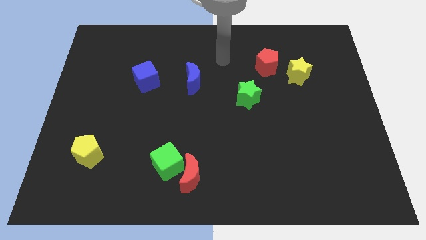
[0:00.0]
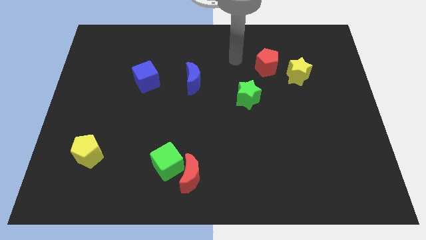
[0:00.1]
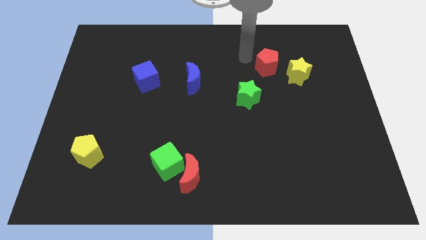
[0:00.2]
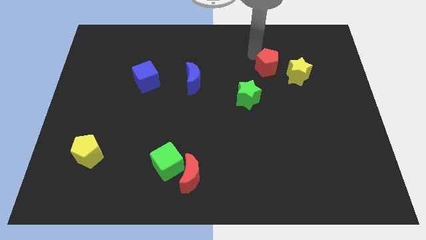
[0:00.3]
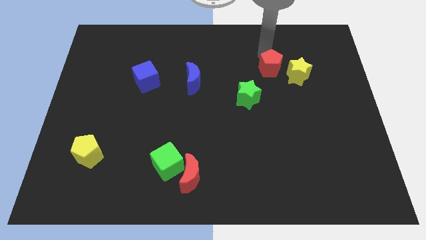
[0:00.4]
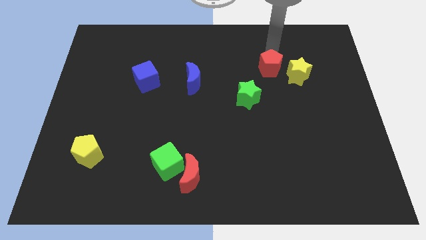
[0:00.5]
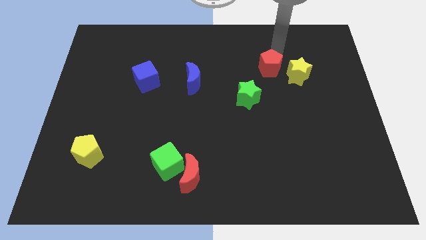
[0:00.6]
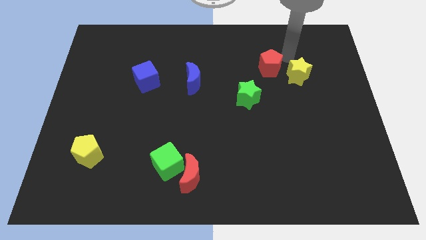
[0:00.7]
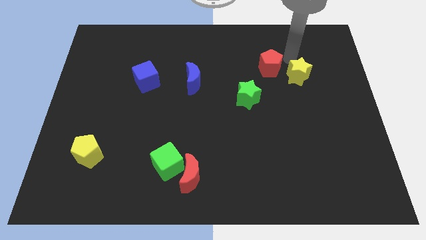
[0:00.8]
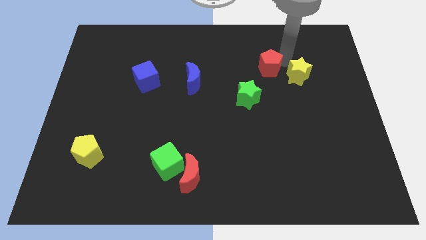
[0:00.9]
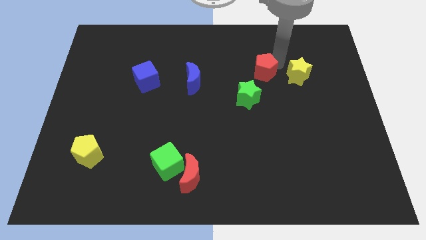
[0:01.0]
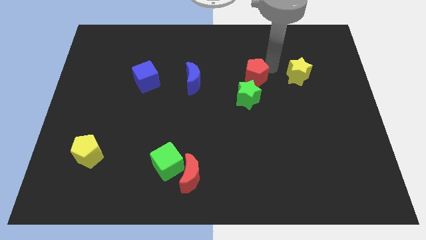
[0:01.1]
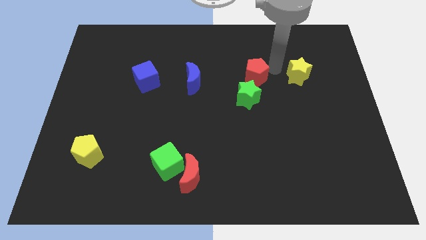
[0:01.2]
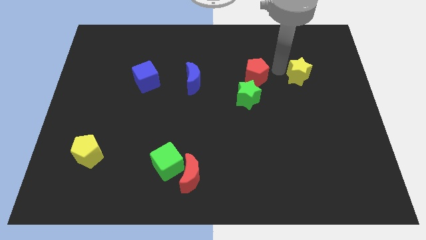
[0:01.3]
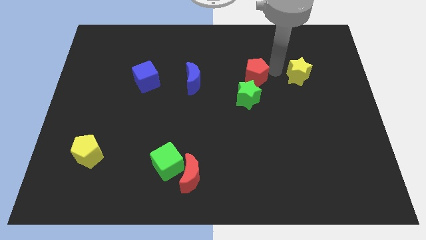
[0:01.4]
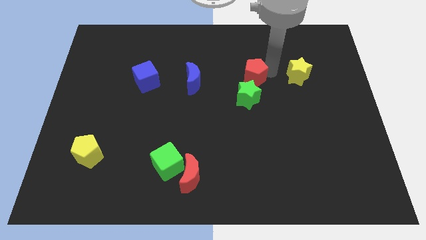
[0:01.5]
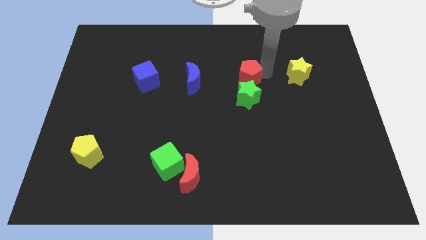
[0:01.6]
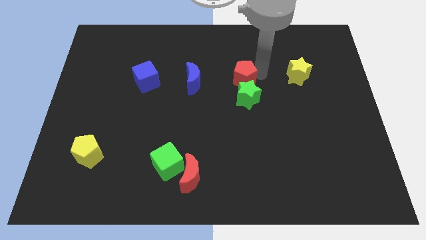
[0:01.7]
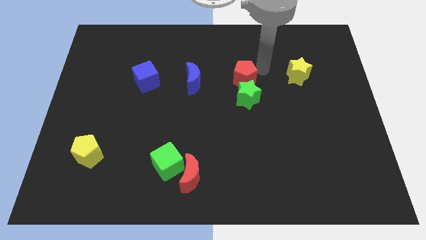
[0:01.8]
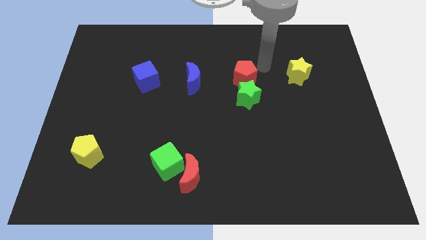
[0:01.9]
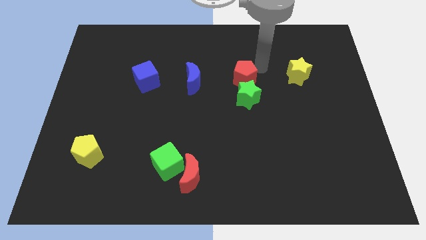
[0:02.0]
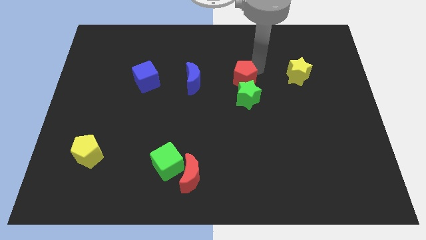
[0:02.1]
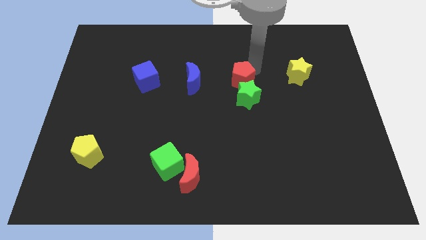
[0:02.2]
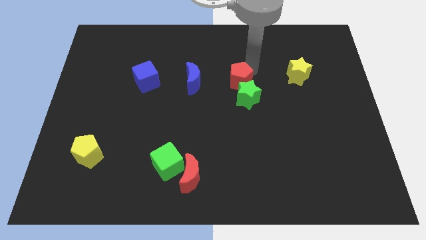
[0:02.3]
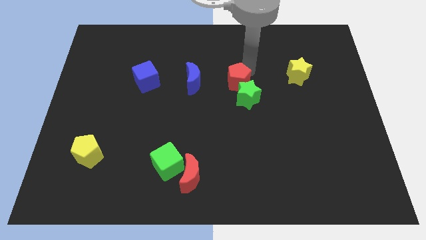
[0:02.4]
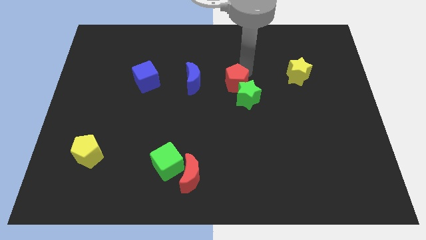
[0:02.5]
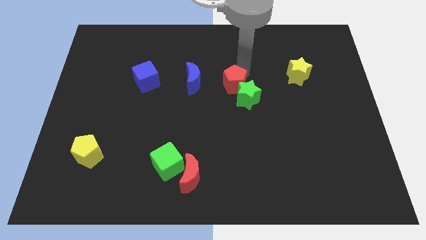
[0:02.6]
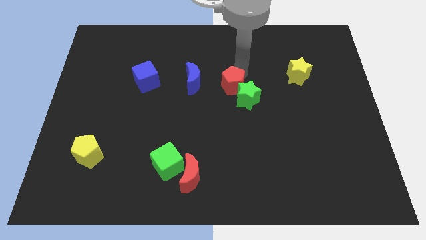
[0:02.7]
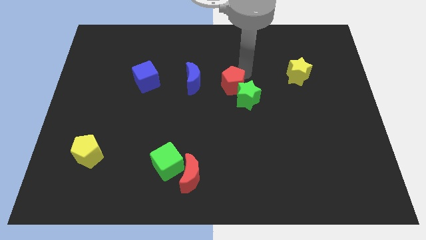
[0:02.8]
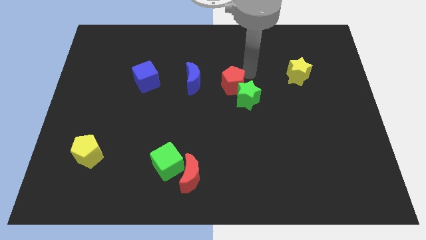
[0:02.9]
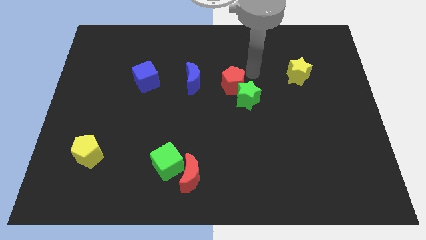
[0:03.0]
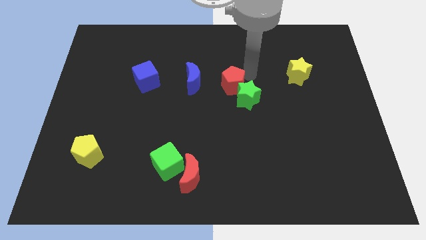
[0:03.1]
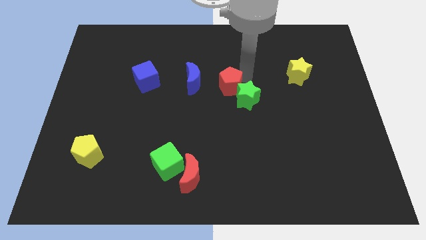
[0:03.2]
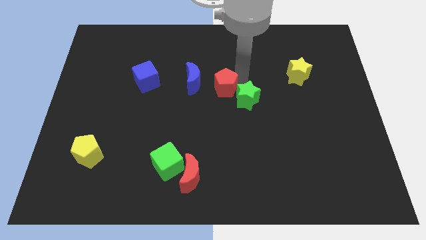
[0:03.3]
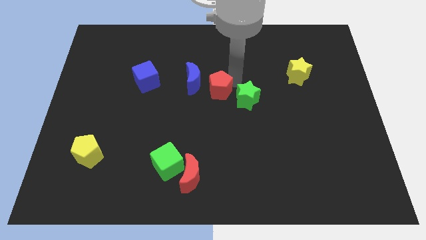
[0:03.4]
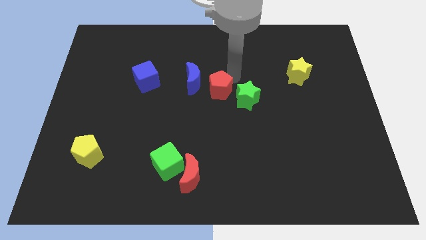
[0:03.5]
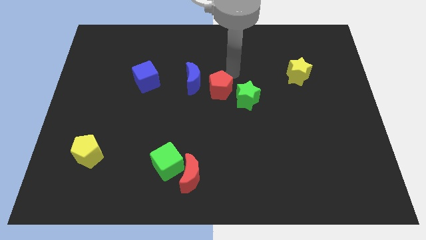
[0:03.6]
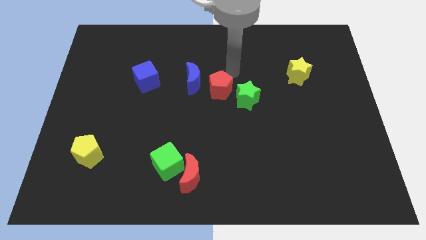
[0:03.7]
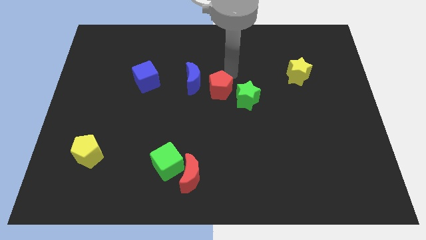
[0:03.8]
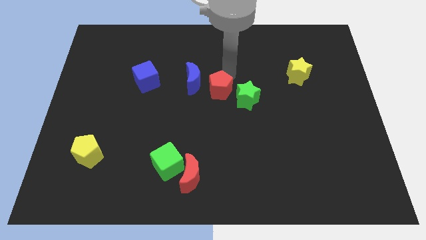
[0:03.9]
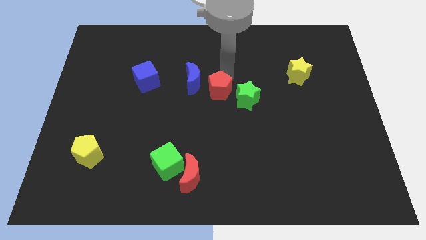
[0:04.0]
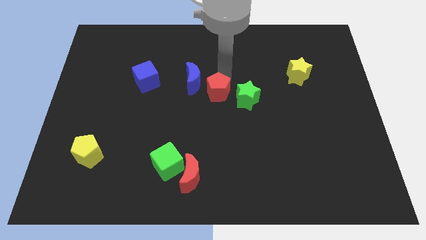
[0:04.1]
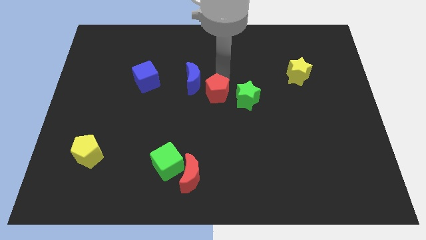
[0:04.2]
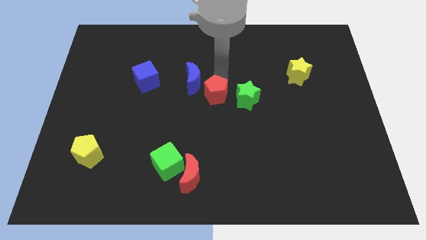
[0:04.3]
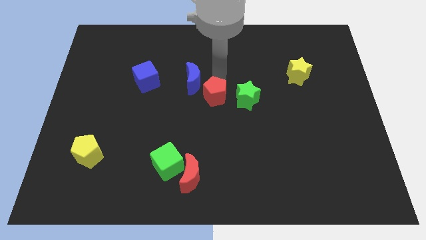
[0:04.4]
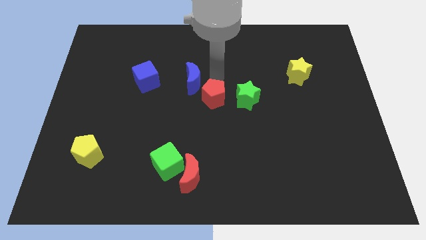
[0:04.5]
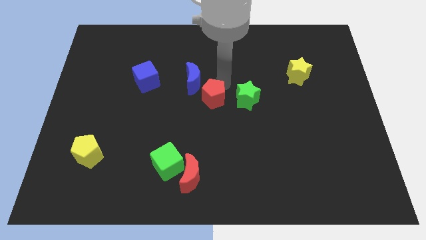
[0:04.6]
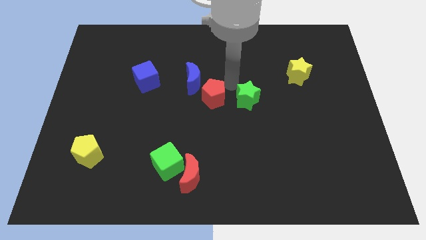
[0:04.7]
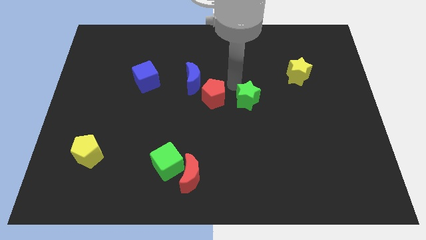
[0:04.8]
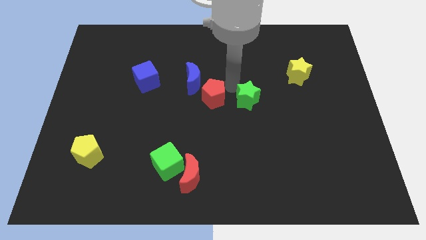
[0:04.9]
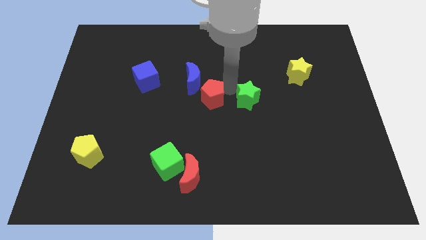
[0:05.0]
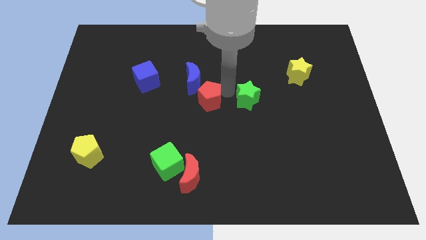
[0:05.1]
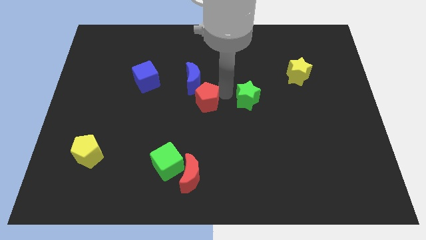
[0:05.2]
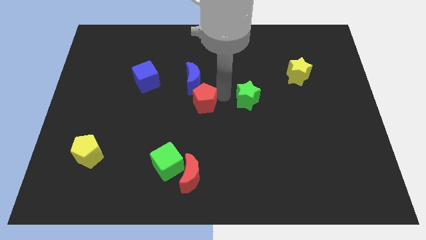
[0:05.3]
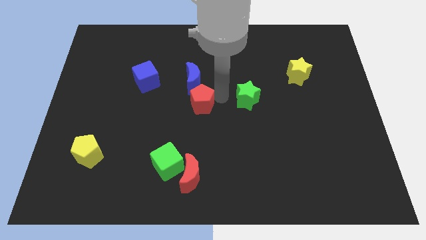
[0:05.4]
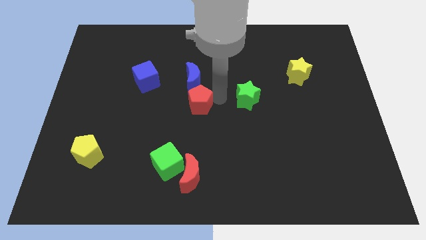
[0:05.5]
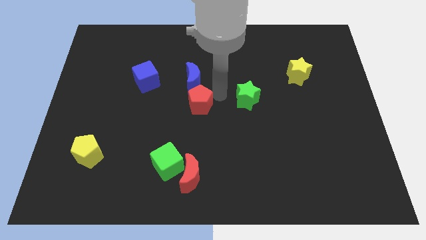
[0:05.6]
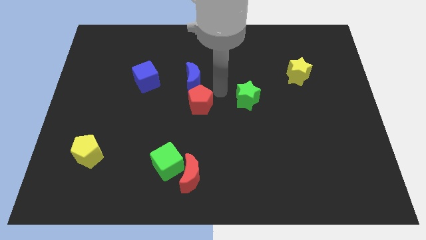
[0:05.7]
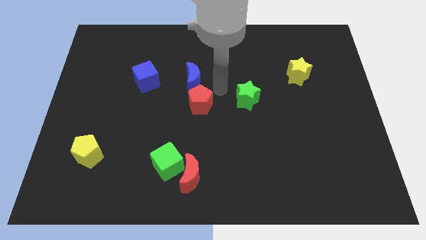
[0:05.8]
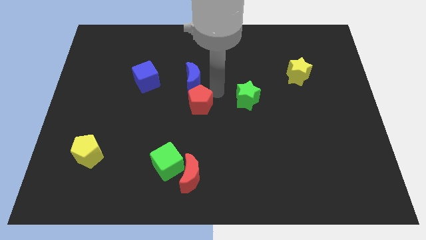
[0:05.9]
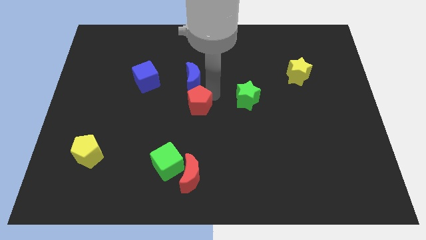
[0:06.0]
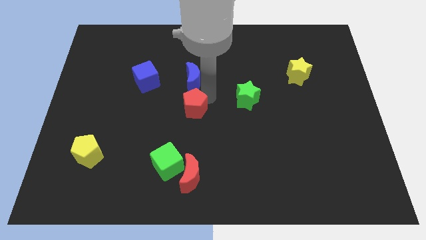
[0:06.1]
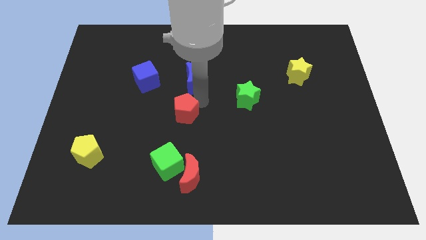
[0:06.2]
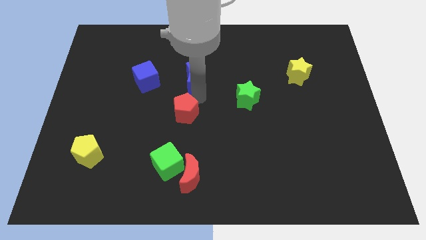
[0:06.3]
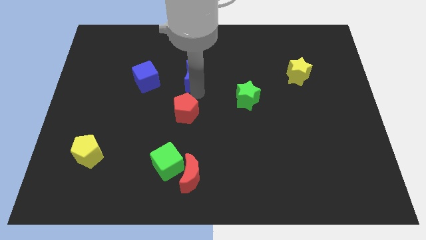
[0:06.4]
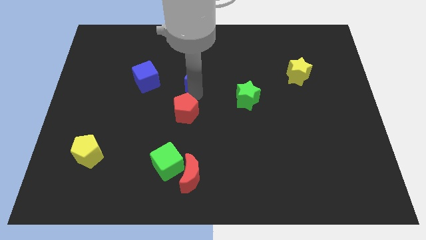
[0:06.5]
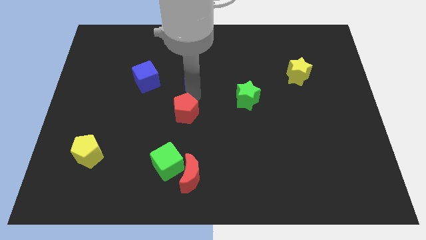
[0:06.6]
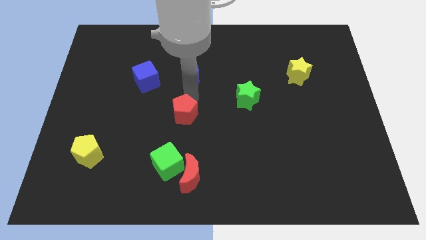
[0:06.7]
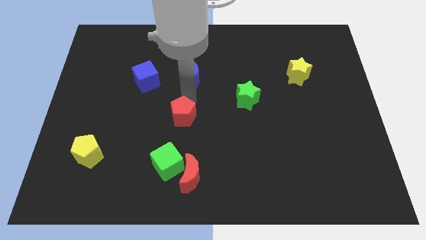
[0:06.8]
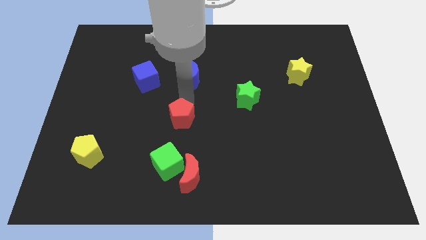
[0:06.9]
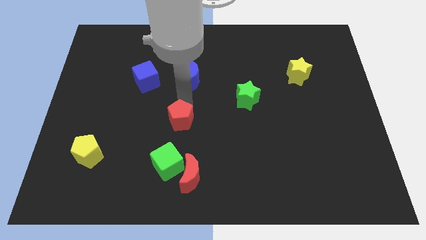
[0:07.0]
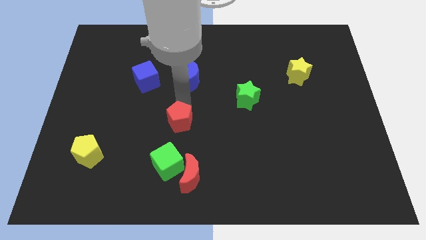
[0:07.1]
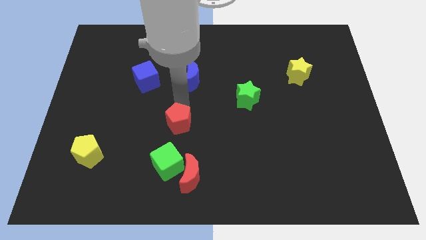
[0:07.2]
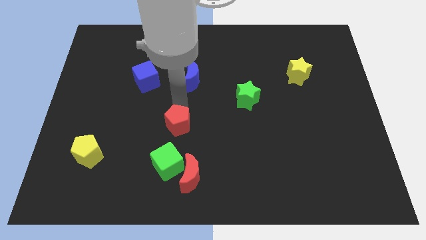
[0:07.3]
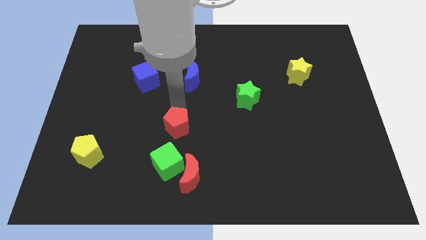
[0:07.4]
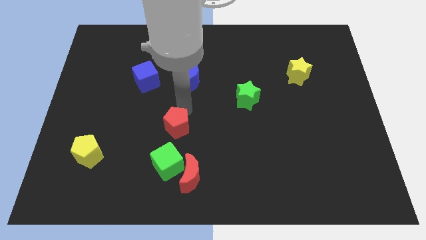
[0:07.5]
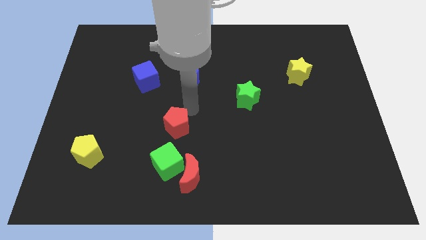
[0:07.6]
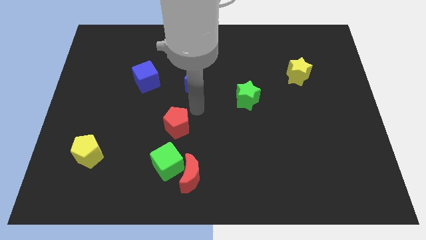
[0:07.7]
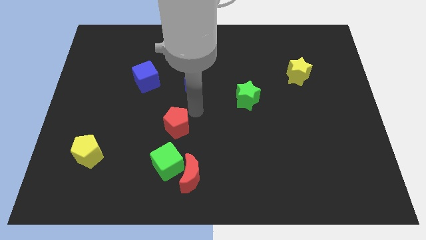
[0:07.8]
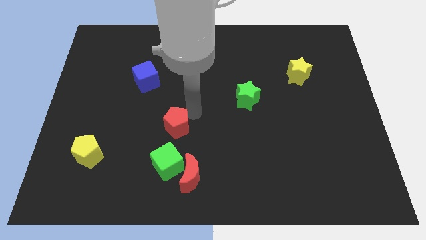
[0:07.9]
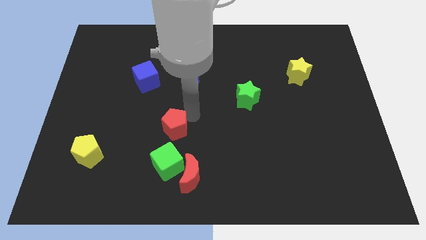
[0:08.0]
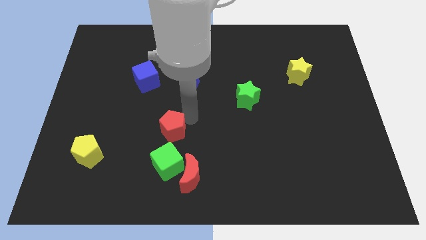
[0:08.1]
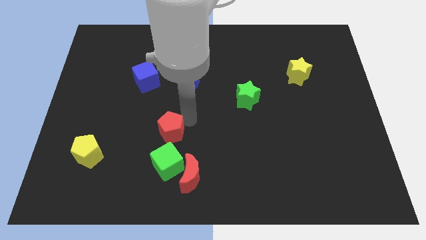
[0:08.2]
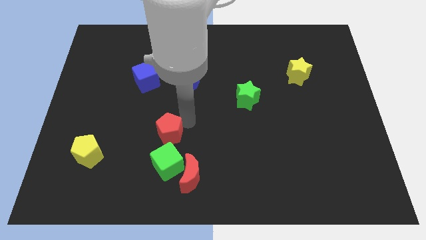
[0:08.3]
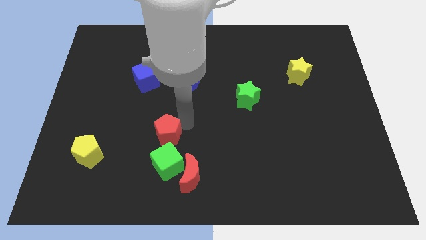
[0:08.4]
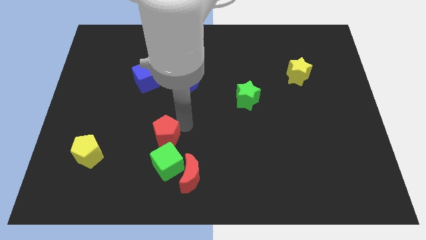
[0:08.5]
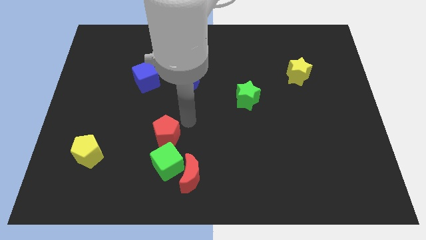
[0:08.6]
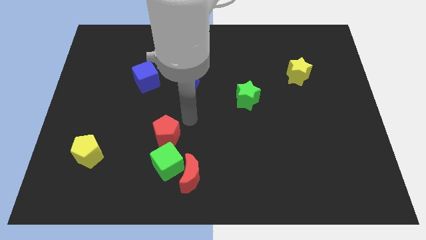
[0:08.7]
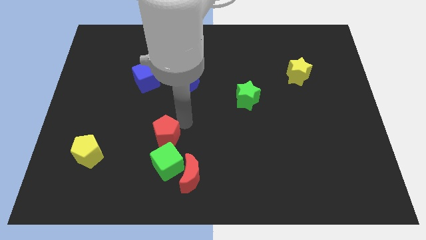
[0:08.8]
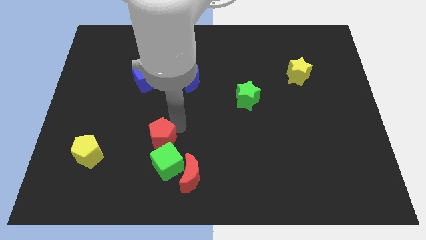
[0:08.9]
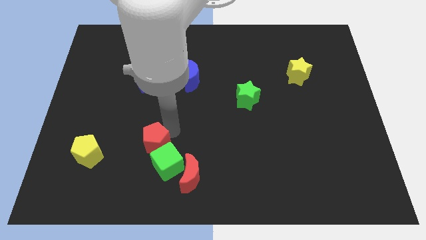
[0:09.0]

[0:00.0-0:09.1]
slide the red pentagon just right of the yellow pentagon
